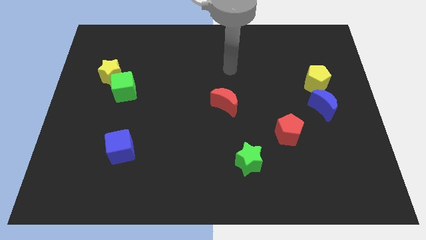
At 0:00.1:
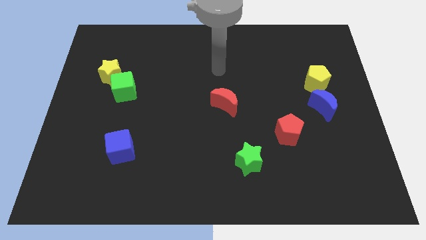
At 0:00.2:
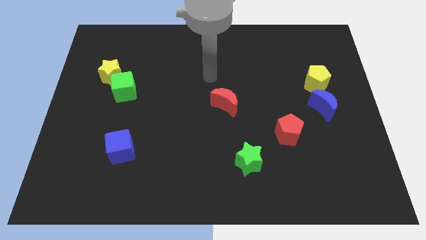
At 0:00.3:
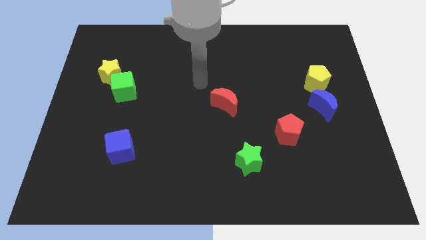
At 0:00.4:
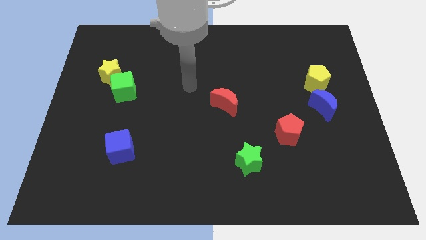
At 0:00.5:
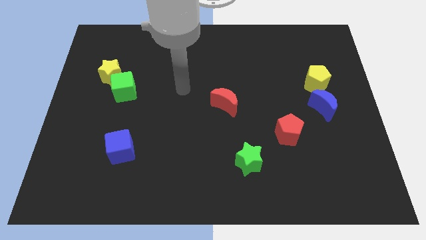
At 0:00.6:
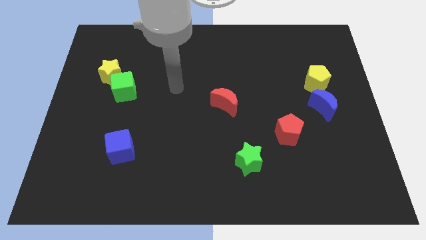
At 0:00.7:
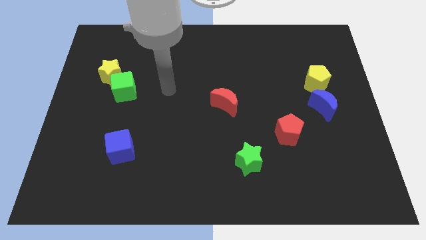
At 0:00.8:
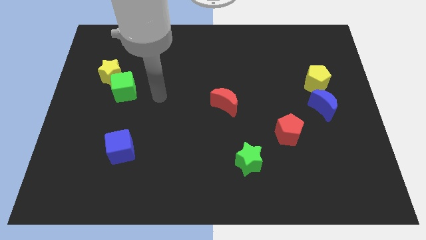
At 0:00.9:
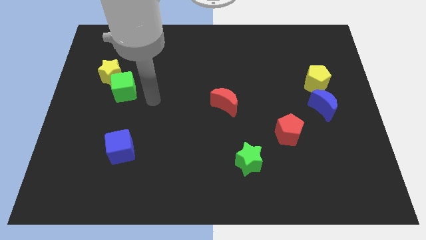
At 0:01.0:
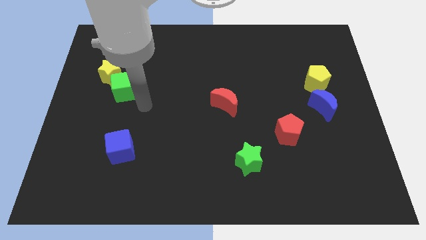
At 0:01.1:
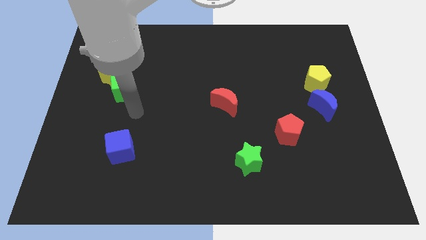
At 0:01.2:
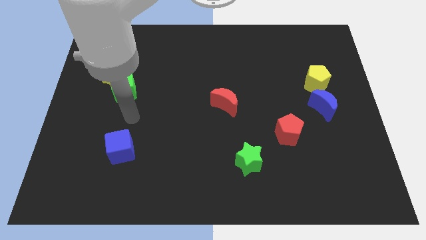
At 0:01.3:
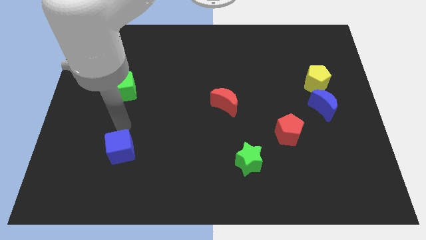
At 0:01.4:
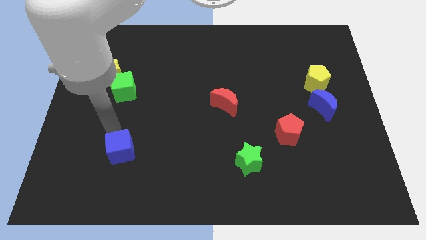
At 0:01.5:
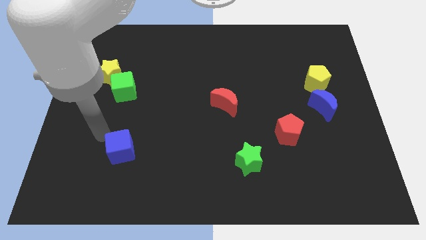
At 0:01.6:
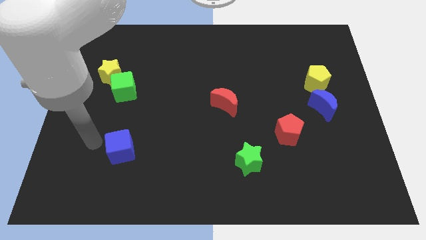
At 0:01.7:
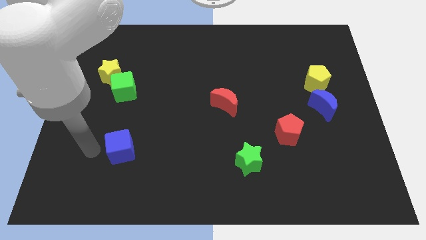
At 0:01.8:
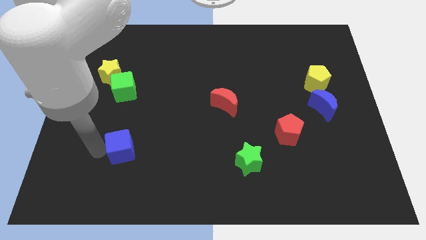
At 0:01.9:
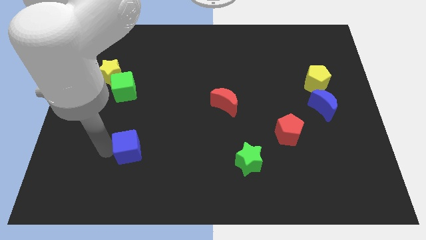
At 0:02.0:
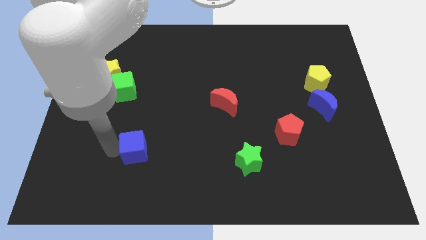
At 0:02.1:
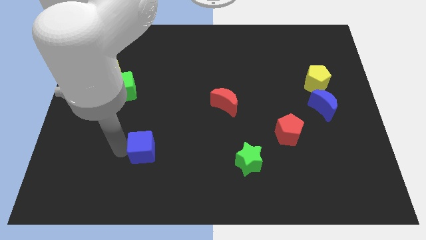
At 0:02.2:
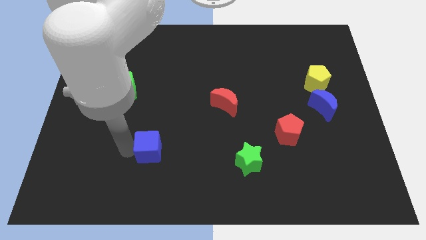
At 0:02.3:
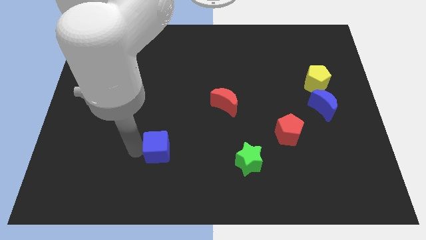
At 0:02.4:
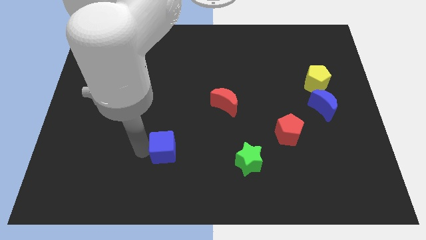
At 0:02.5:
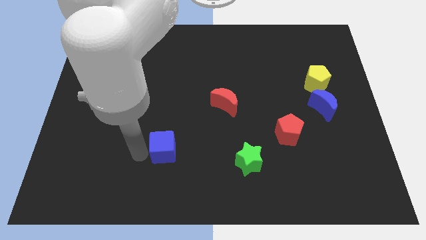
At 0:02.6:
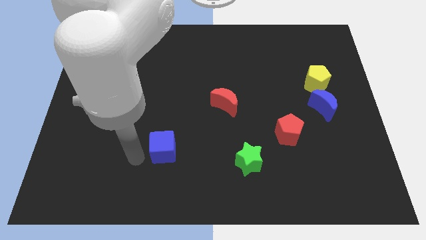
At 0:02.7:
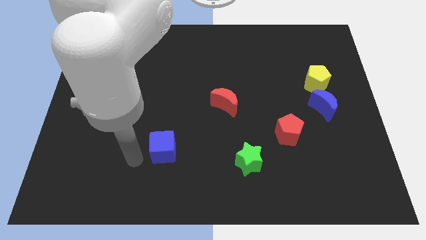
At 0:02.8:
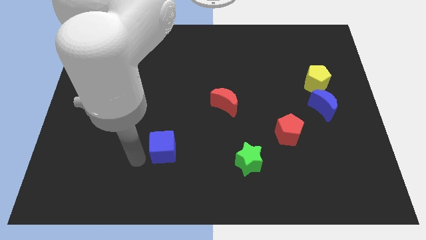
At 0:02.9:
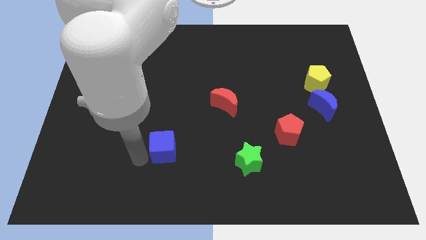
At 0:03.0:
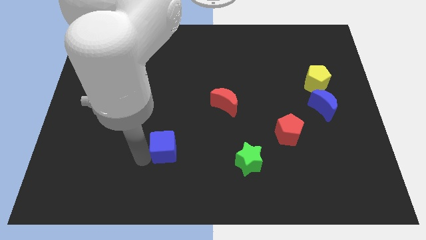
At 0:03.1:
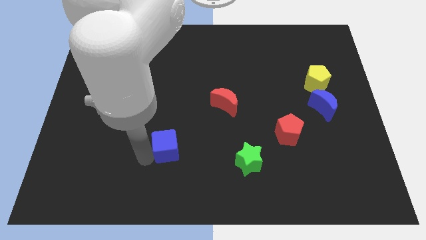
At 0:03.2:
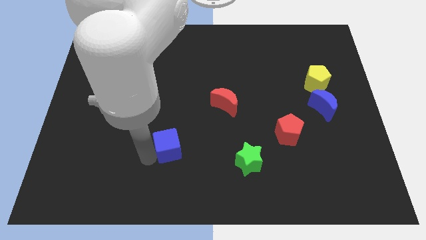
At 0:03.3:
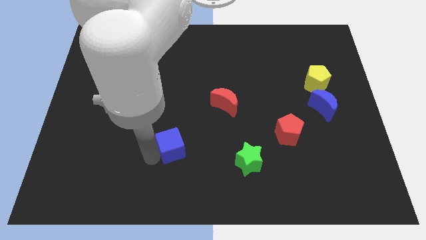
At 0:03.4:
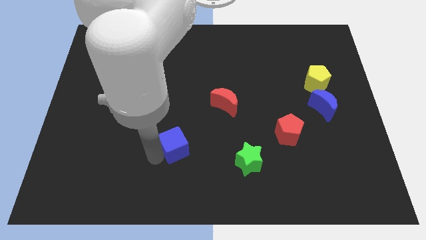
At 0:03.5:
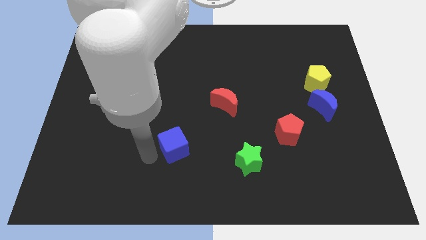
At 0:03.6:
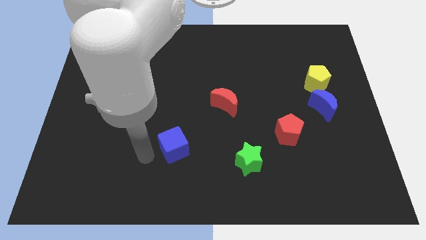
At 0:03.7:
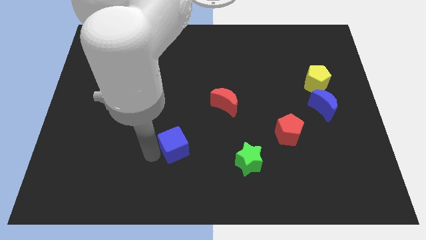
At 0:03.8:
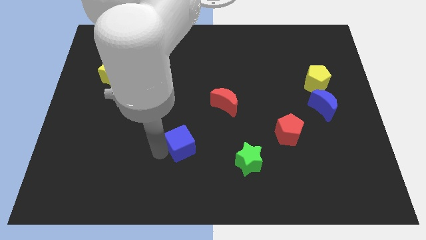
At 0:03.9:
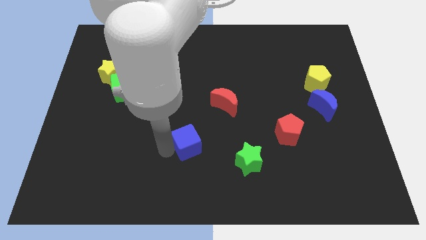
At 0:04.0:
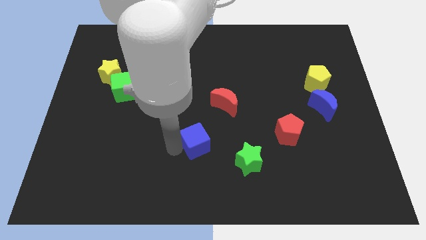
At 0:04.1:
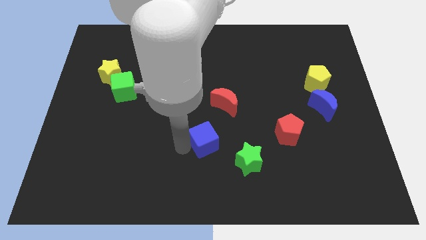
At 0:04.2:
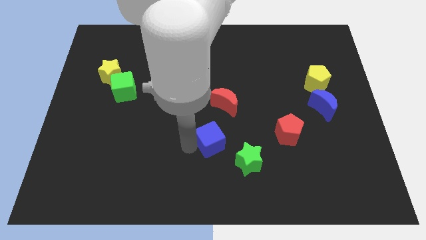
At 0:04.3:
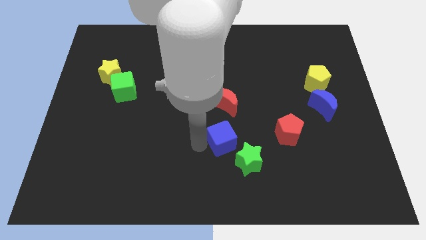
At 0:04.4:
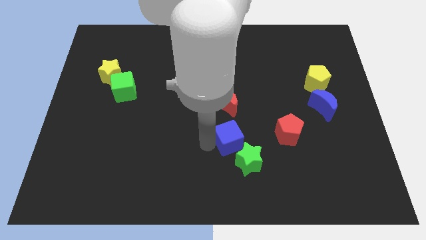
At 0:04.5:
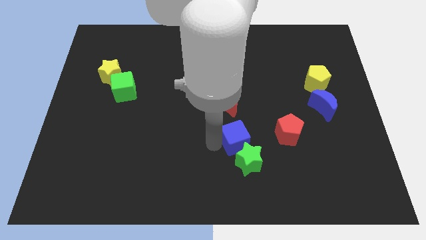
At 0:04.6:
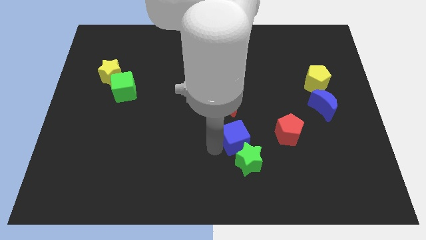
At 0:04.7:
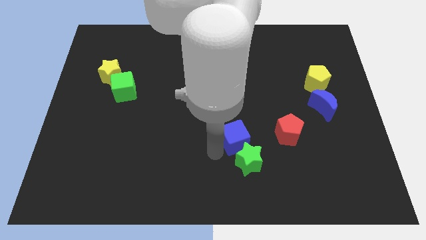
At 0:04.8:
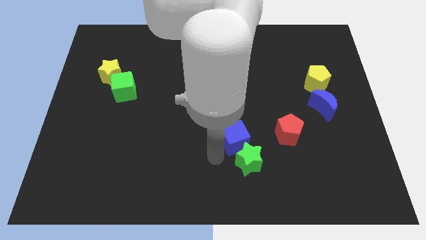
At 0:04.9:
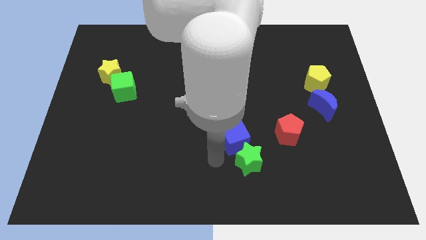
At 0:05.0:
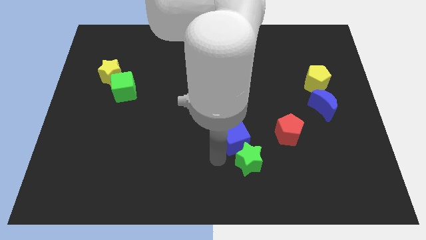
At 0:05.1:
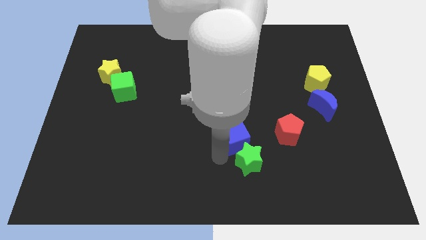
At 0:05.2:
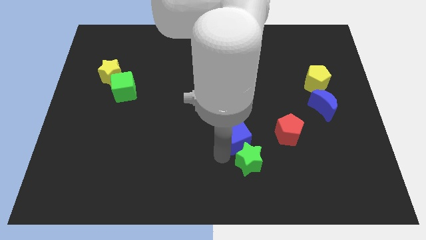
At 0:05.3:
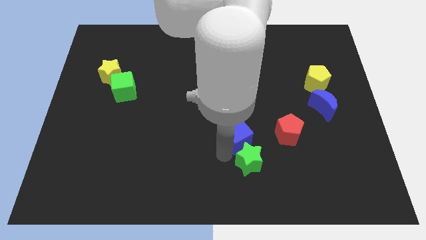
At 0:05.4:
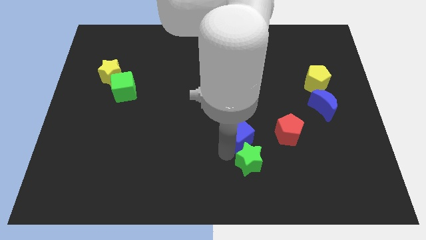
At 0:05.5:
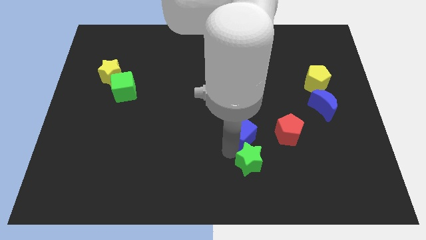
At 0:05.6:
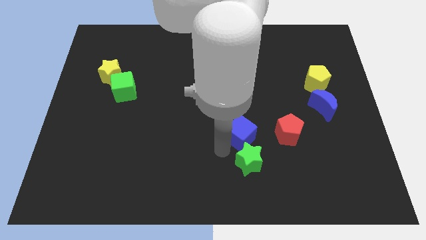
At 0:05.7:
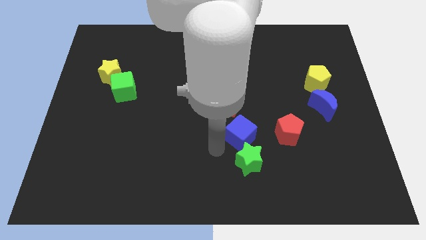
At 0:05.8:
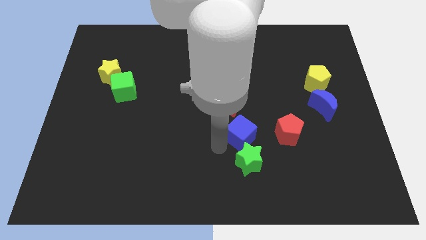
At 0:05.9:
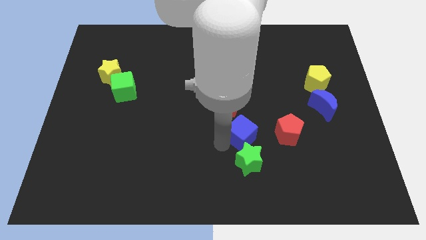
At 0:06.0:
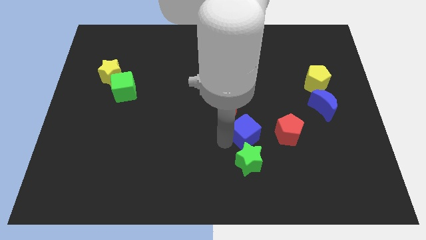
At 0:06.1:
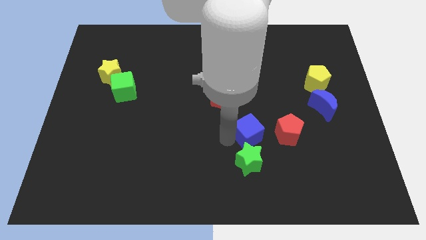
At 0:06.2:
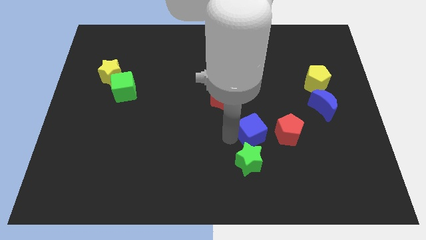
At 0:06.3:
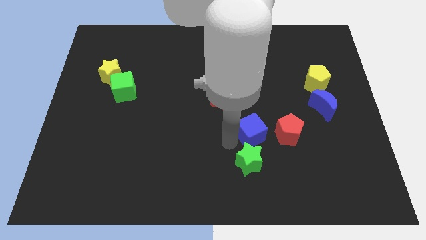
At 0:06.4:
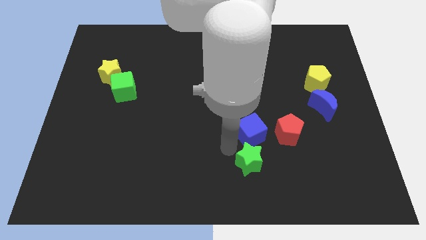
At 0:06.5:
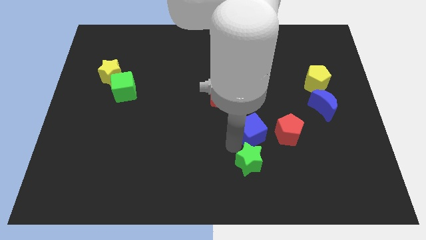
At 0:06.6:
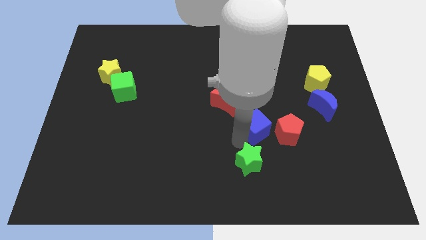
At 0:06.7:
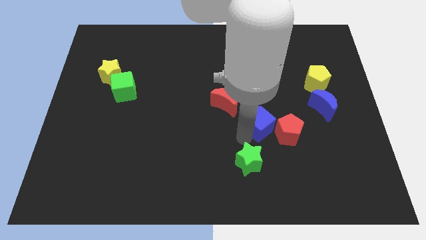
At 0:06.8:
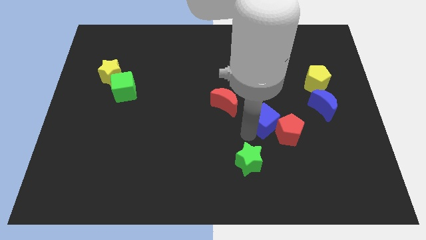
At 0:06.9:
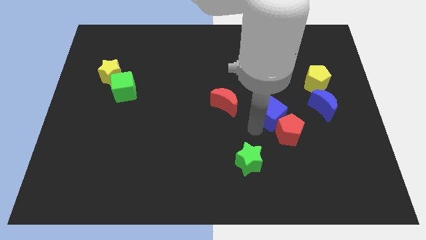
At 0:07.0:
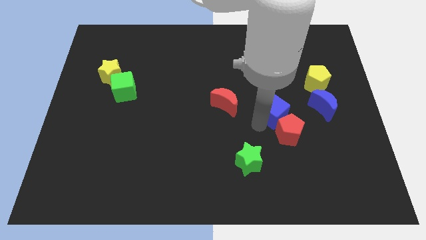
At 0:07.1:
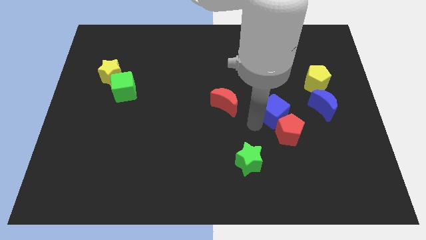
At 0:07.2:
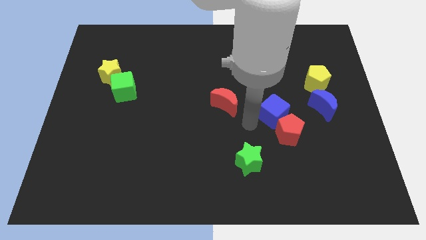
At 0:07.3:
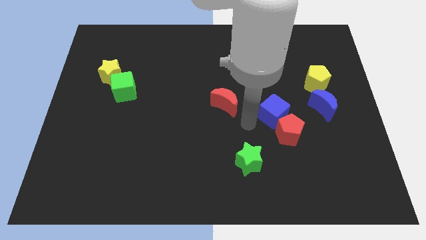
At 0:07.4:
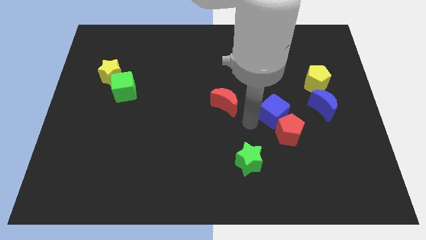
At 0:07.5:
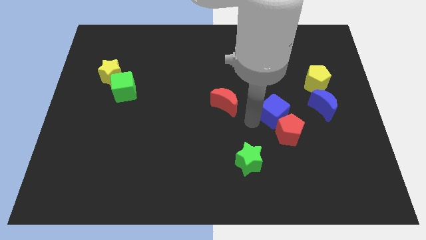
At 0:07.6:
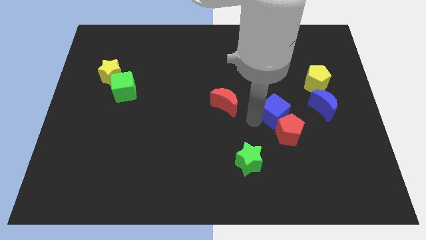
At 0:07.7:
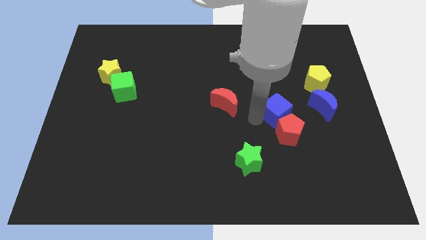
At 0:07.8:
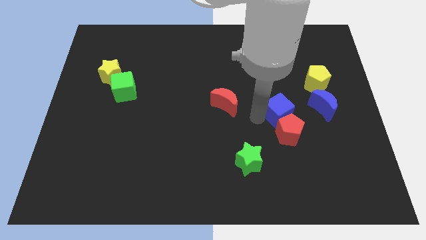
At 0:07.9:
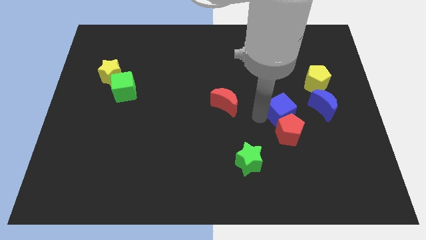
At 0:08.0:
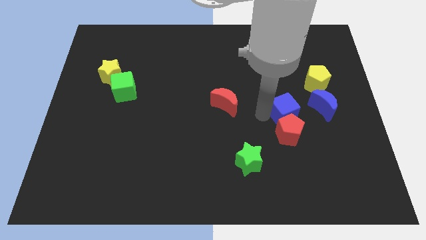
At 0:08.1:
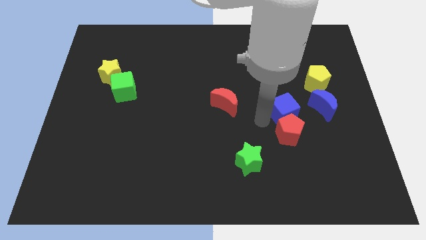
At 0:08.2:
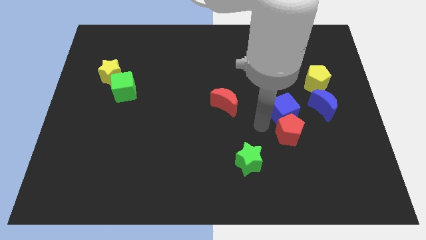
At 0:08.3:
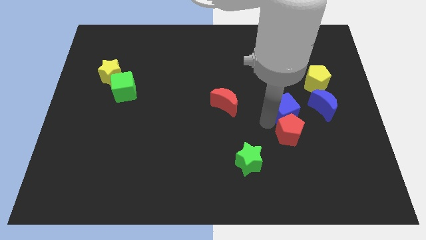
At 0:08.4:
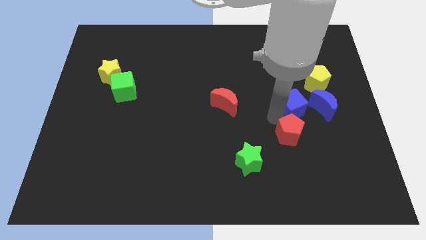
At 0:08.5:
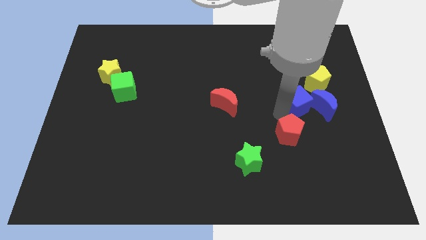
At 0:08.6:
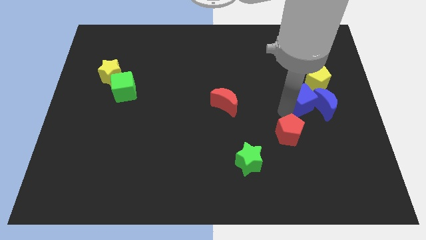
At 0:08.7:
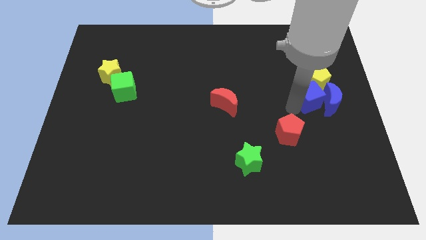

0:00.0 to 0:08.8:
put the blue cube next to the yellow pentagon
